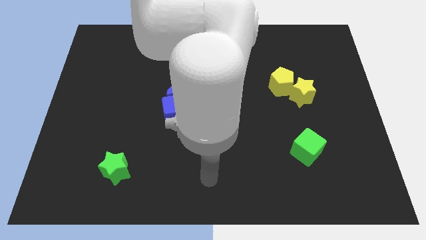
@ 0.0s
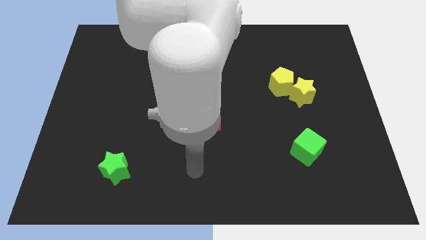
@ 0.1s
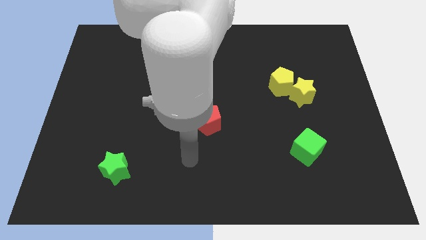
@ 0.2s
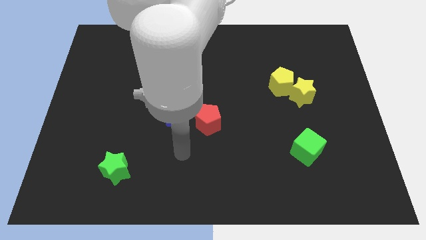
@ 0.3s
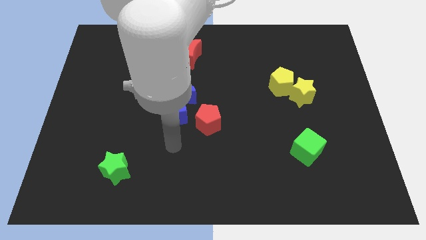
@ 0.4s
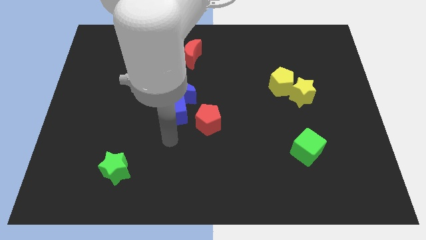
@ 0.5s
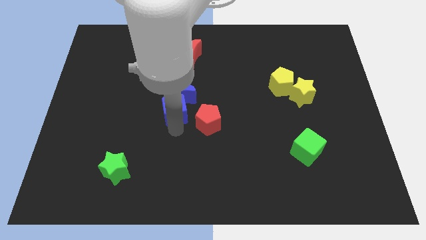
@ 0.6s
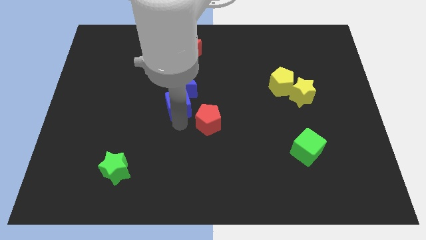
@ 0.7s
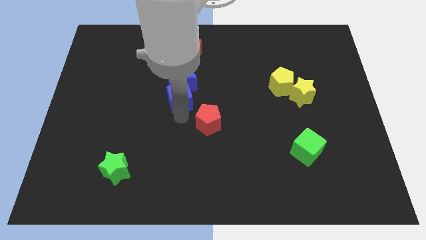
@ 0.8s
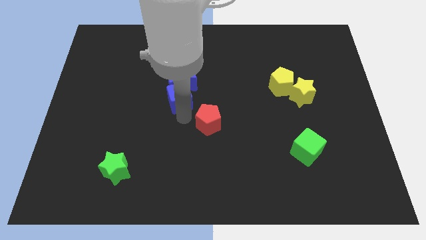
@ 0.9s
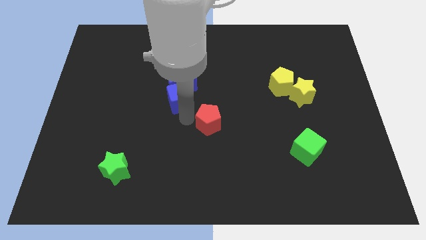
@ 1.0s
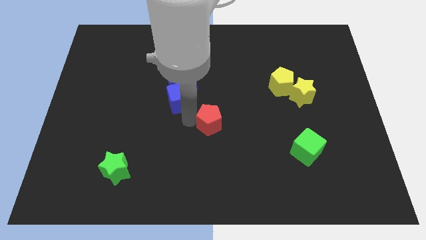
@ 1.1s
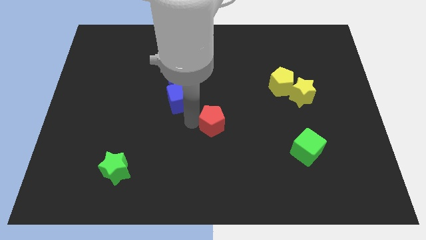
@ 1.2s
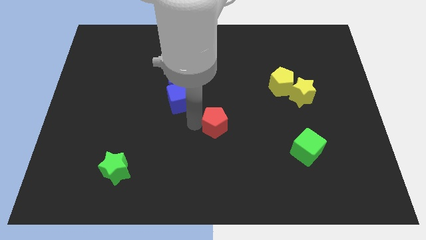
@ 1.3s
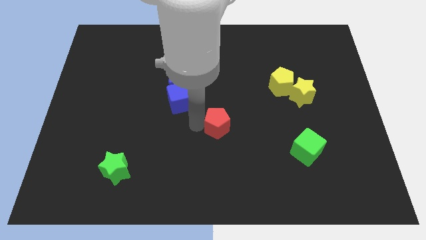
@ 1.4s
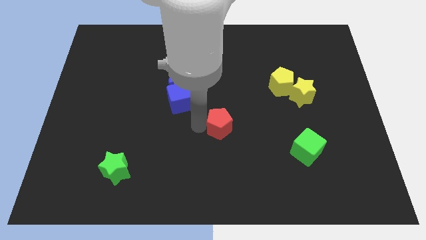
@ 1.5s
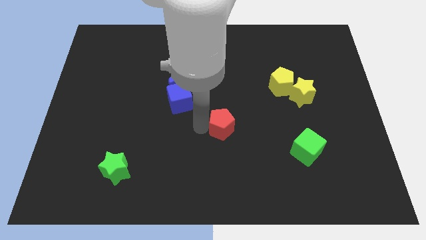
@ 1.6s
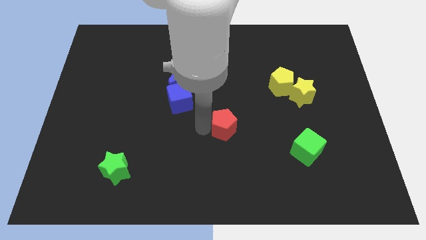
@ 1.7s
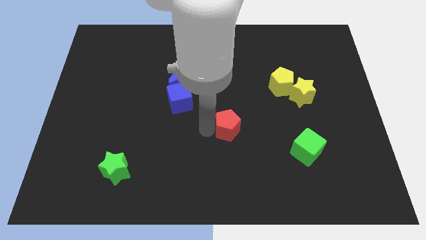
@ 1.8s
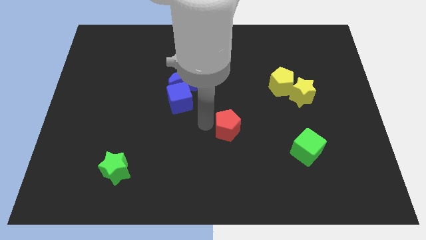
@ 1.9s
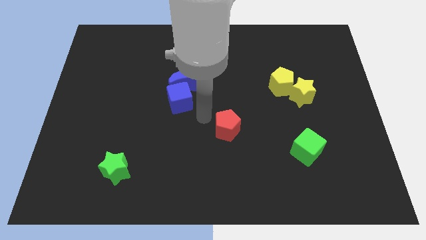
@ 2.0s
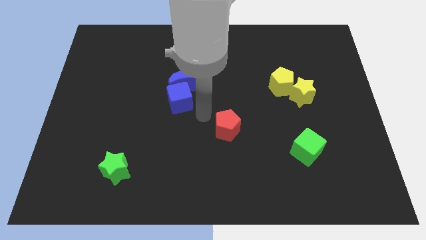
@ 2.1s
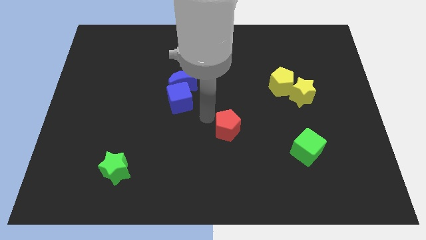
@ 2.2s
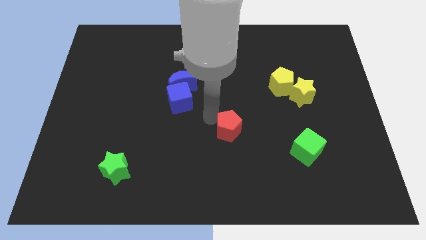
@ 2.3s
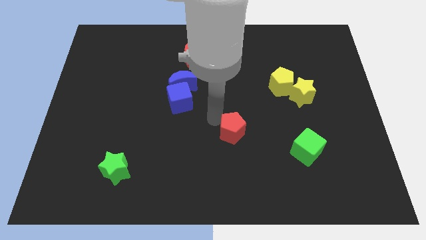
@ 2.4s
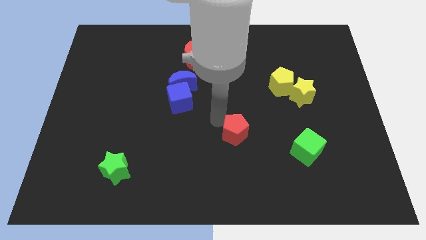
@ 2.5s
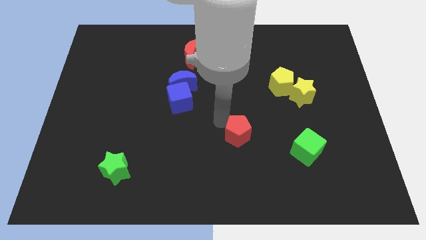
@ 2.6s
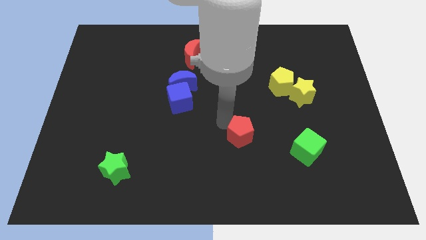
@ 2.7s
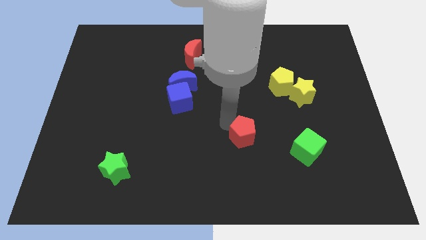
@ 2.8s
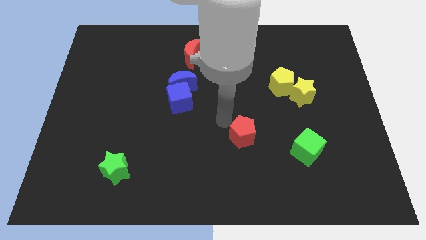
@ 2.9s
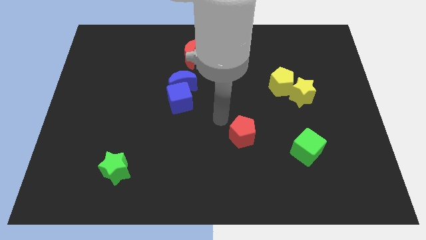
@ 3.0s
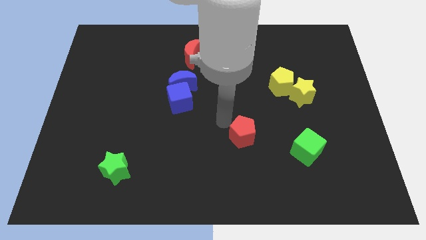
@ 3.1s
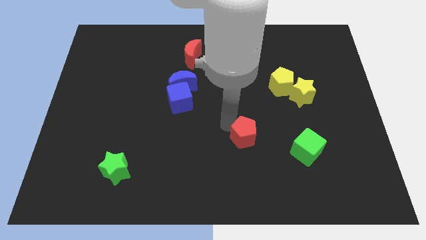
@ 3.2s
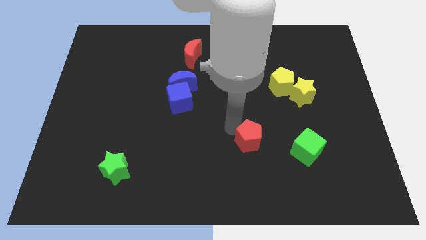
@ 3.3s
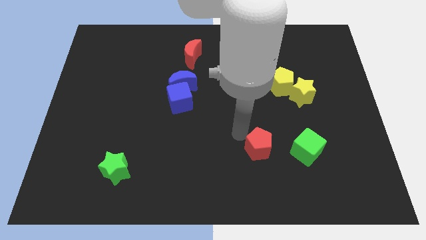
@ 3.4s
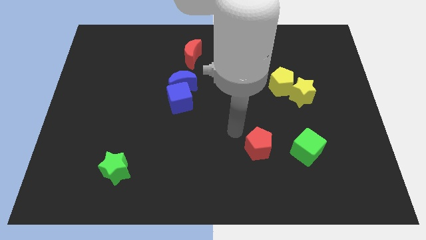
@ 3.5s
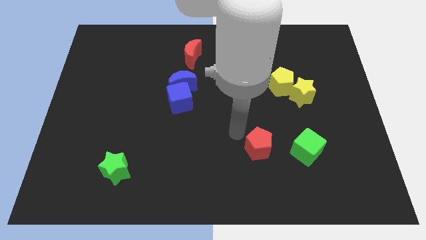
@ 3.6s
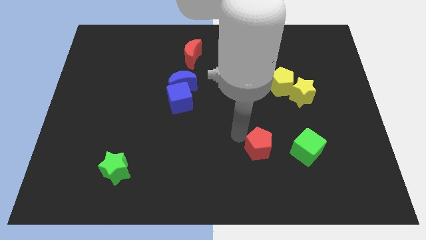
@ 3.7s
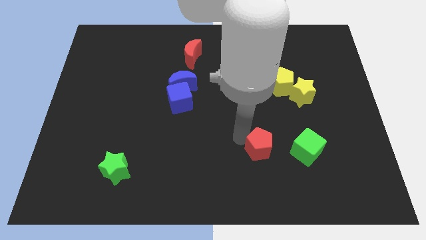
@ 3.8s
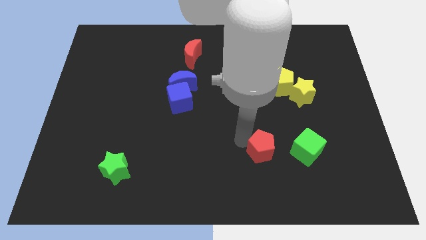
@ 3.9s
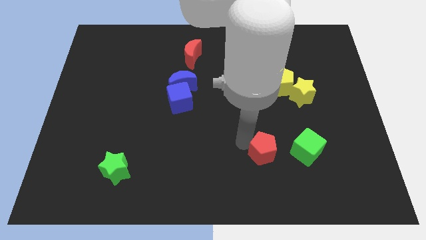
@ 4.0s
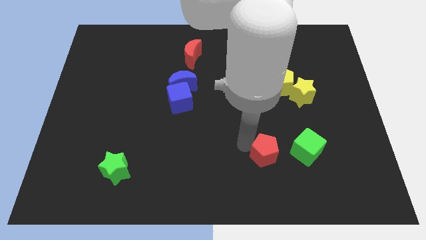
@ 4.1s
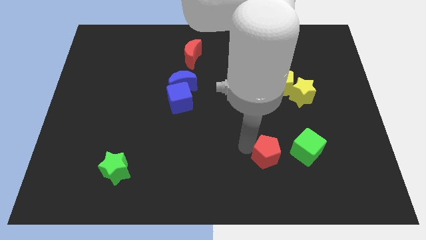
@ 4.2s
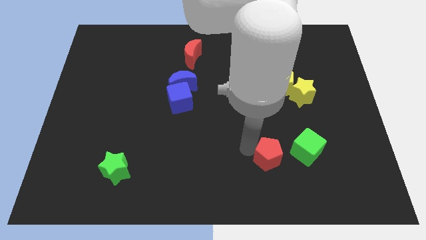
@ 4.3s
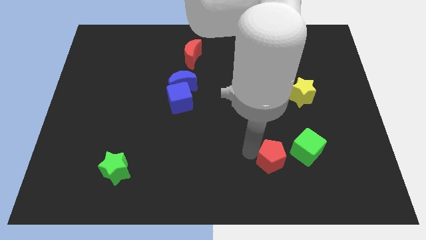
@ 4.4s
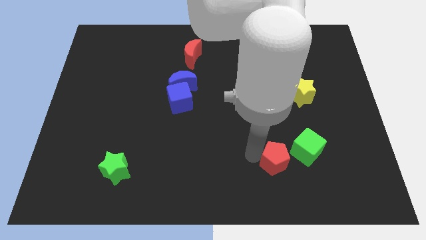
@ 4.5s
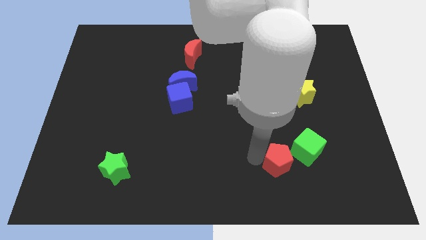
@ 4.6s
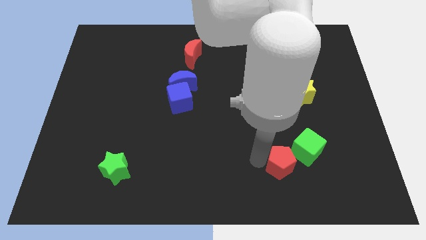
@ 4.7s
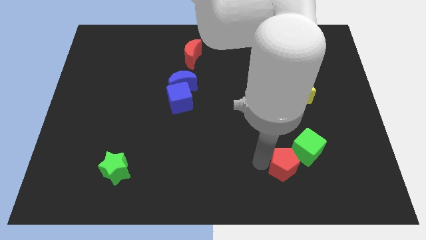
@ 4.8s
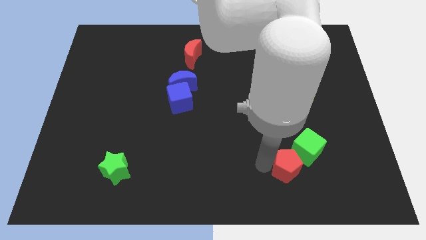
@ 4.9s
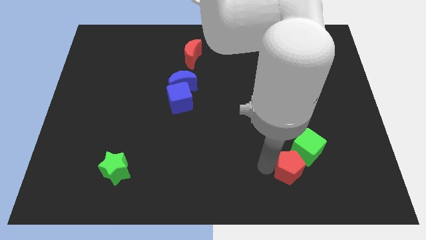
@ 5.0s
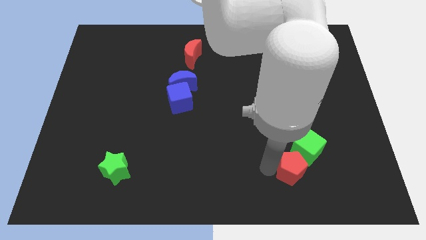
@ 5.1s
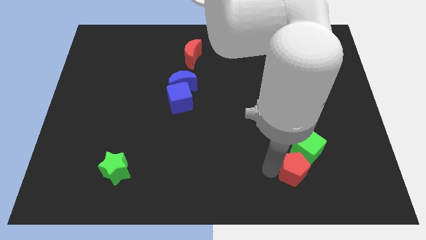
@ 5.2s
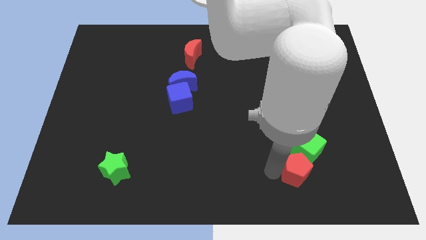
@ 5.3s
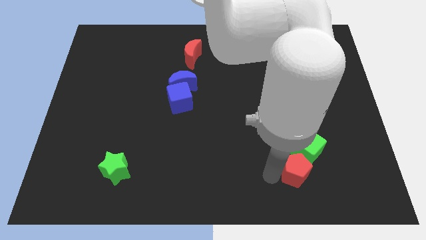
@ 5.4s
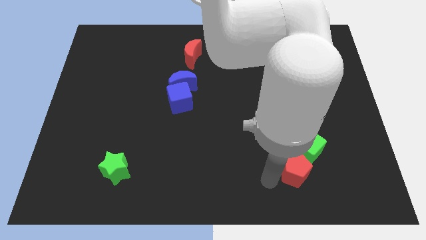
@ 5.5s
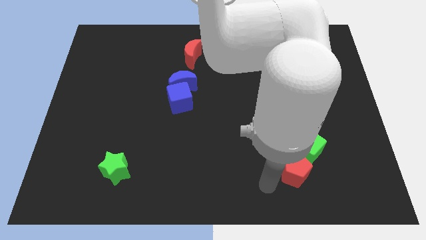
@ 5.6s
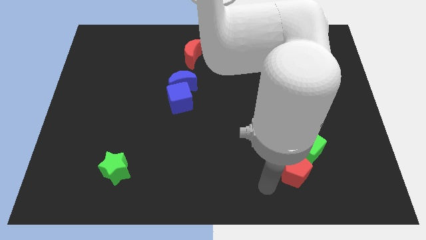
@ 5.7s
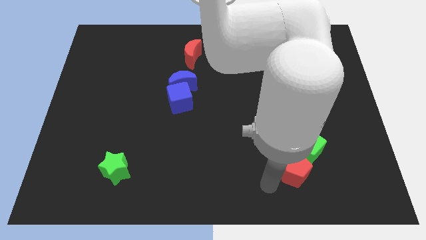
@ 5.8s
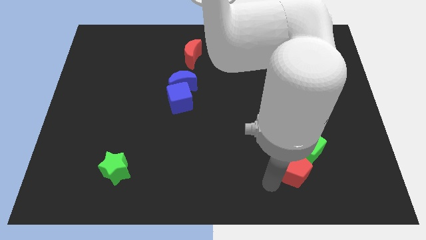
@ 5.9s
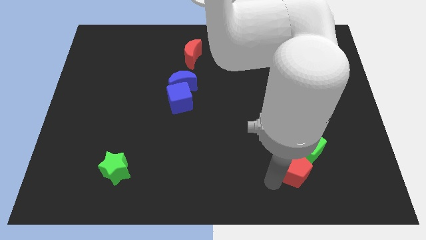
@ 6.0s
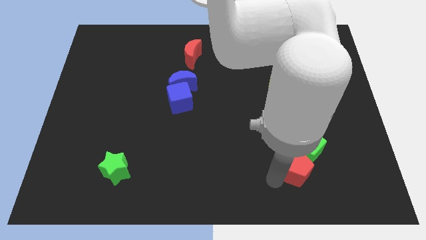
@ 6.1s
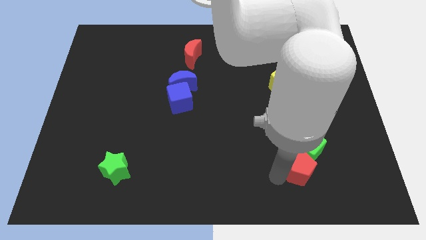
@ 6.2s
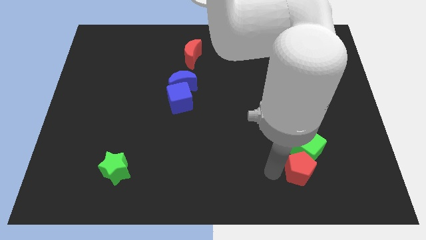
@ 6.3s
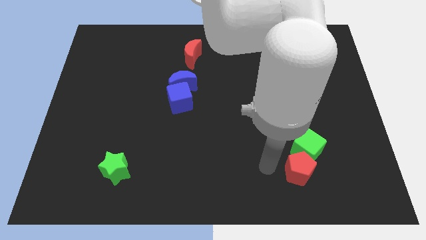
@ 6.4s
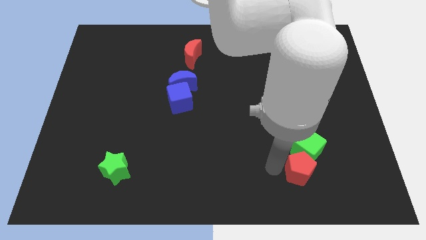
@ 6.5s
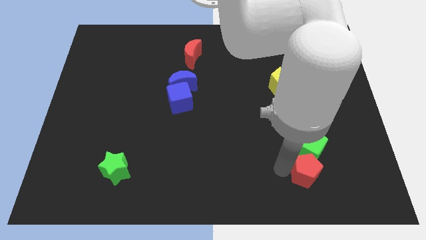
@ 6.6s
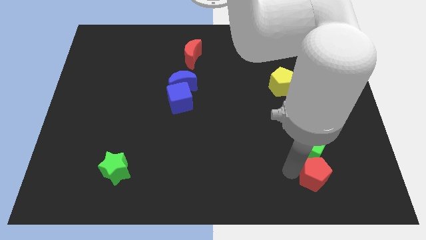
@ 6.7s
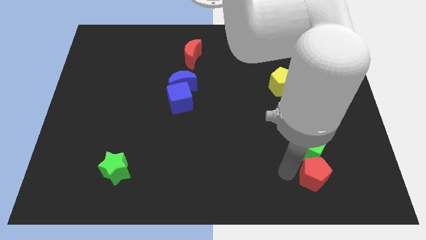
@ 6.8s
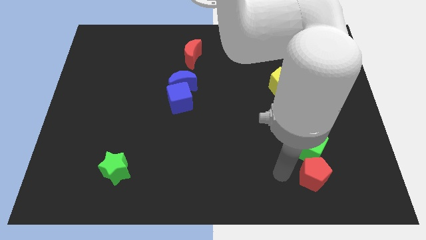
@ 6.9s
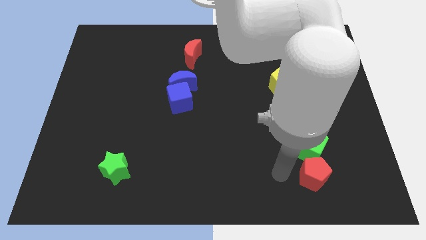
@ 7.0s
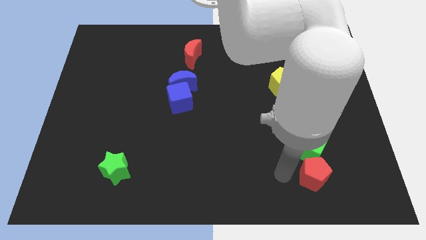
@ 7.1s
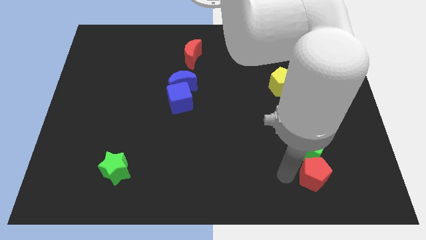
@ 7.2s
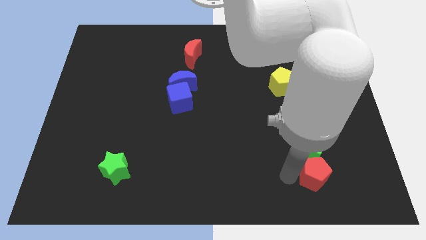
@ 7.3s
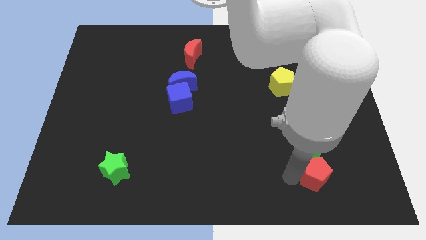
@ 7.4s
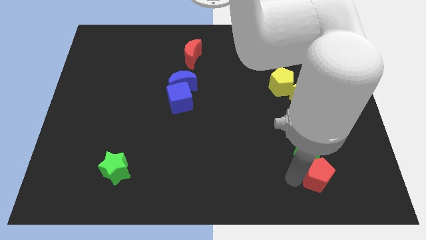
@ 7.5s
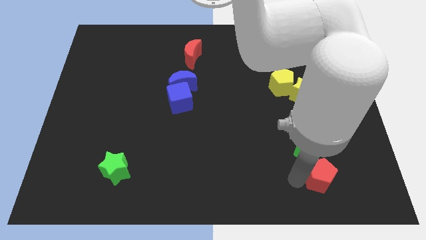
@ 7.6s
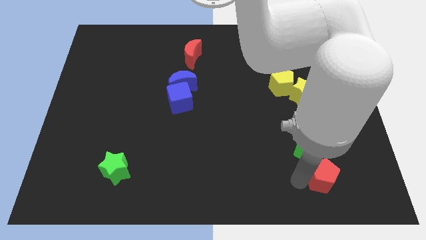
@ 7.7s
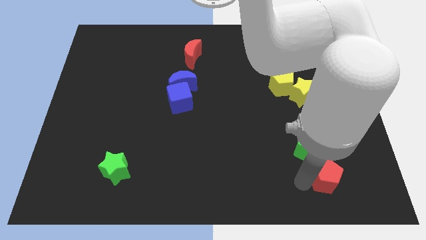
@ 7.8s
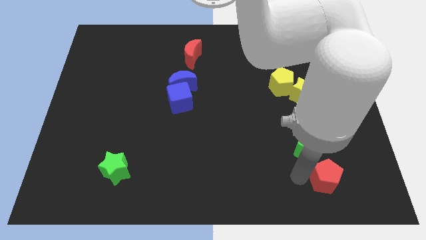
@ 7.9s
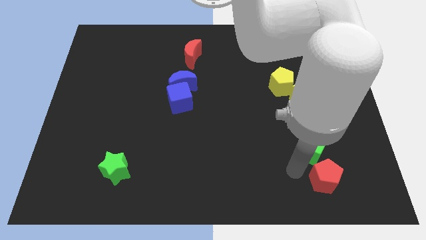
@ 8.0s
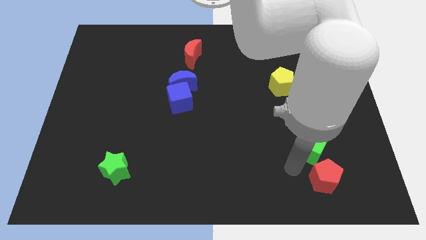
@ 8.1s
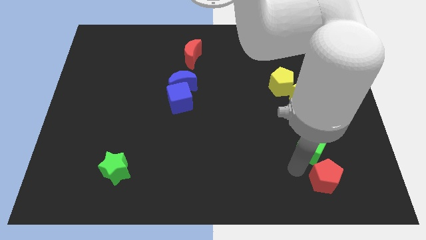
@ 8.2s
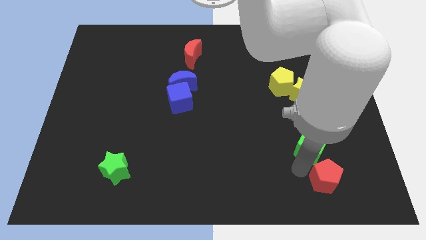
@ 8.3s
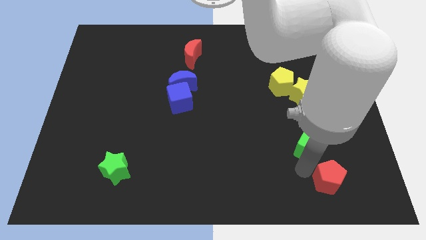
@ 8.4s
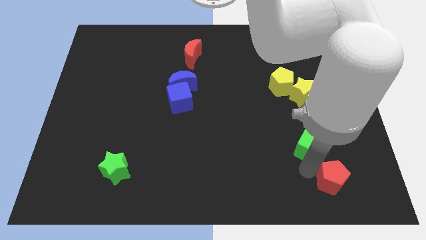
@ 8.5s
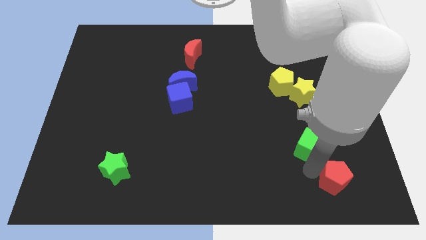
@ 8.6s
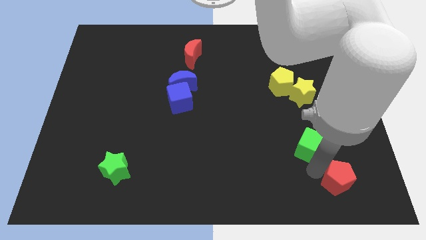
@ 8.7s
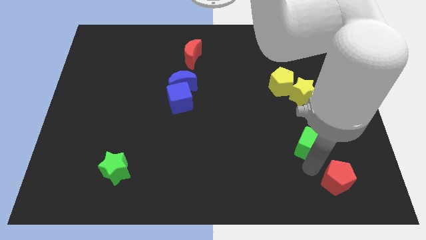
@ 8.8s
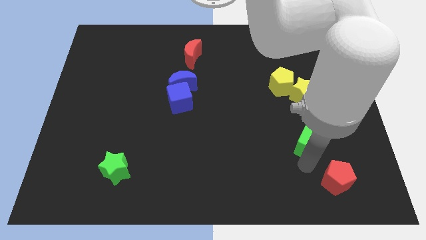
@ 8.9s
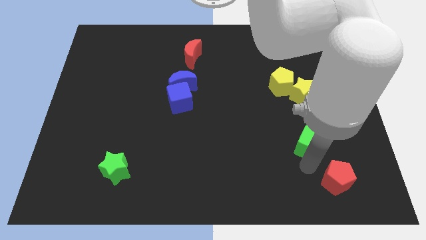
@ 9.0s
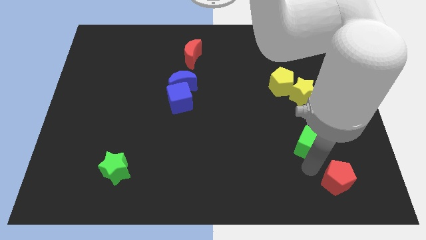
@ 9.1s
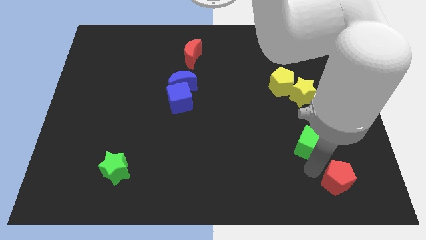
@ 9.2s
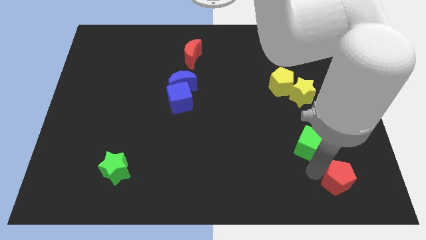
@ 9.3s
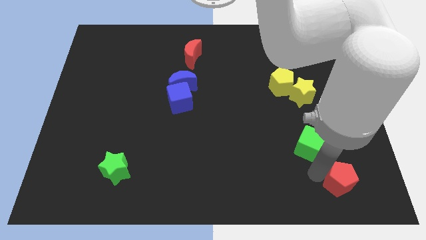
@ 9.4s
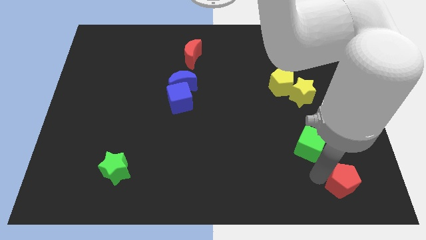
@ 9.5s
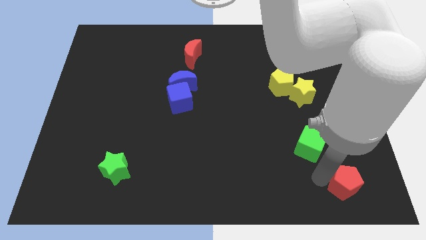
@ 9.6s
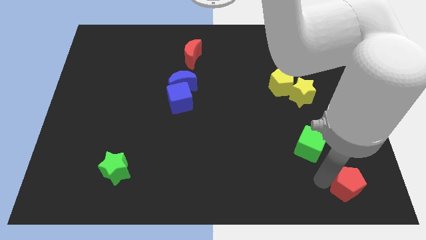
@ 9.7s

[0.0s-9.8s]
move the red pentagon to the bottom right of the board
